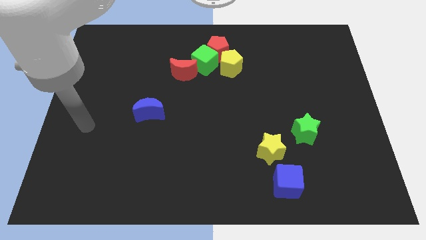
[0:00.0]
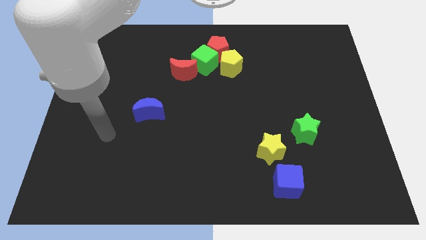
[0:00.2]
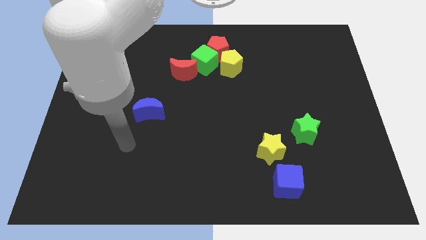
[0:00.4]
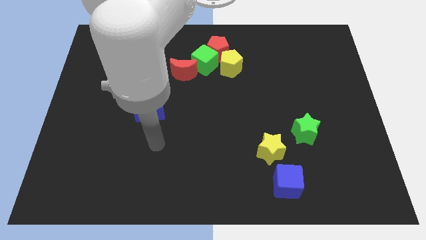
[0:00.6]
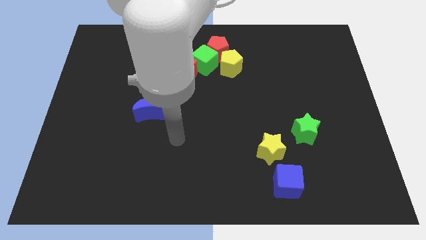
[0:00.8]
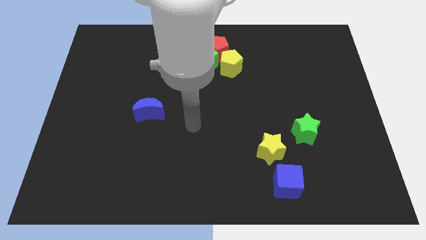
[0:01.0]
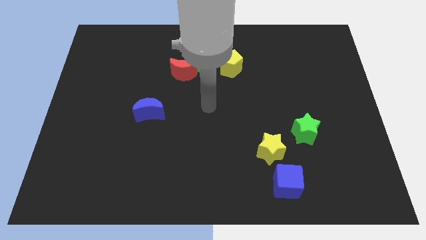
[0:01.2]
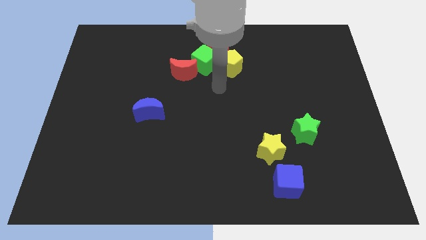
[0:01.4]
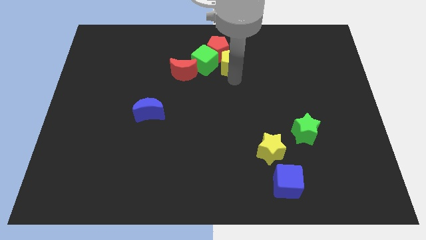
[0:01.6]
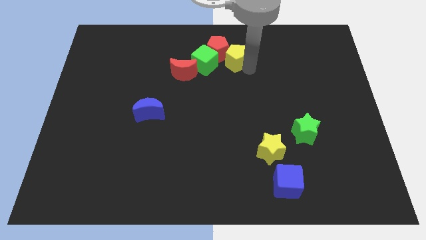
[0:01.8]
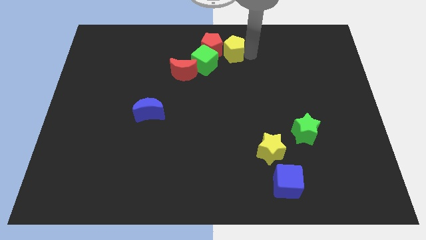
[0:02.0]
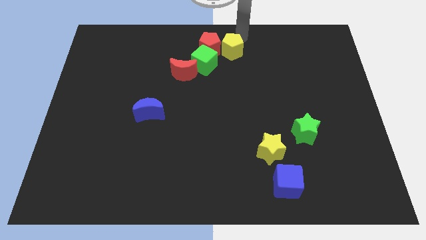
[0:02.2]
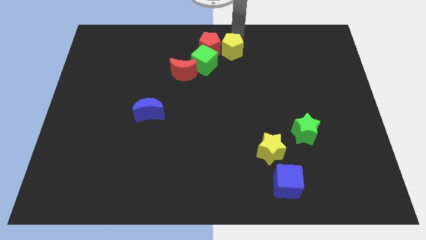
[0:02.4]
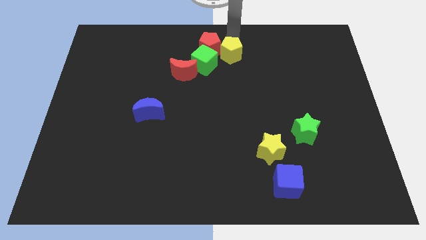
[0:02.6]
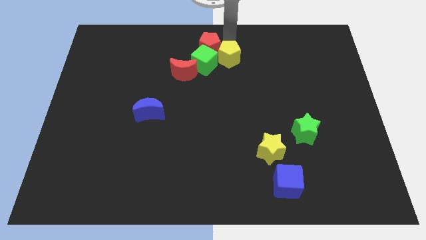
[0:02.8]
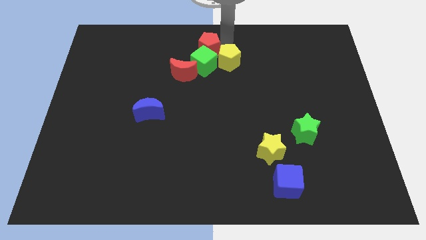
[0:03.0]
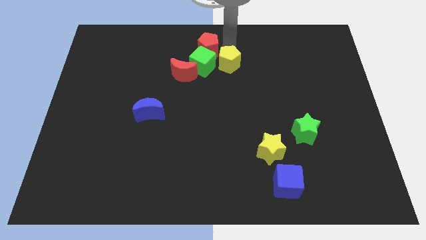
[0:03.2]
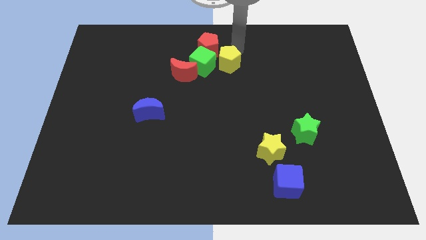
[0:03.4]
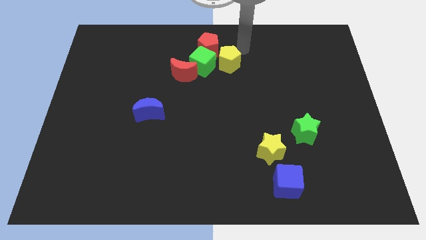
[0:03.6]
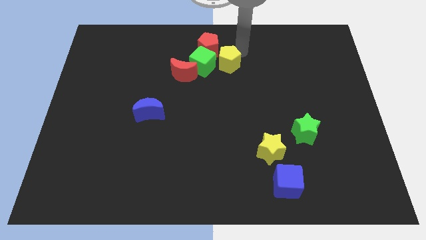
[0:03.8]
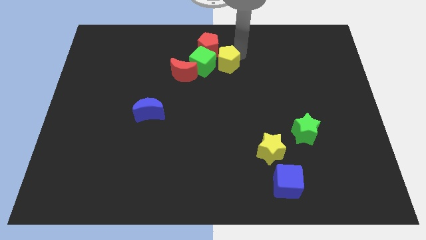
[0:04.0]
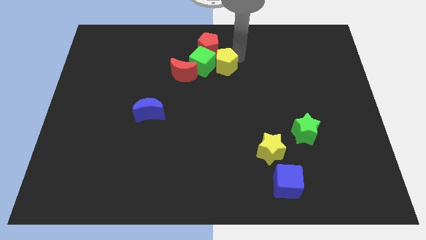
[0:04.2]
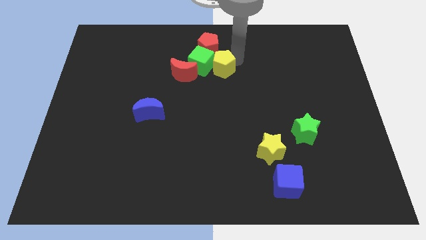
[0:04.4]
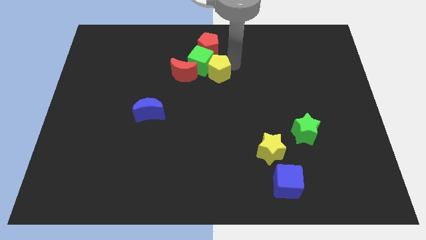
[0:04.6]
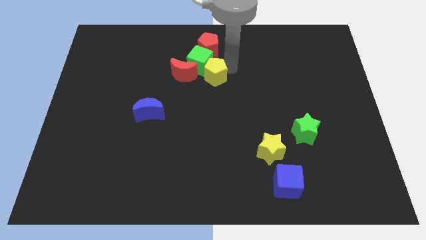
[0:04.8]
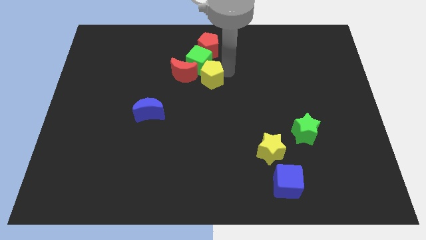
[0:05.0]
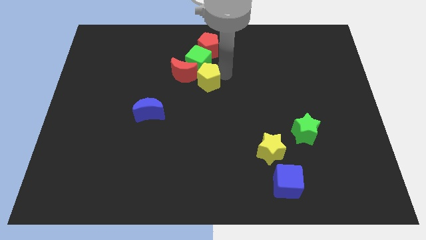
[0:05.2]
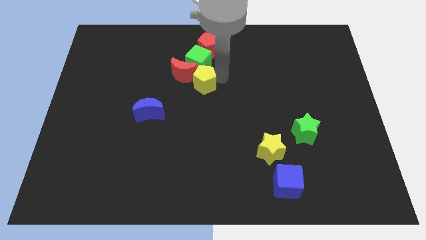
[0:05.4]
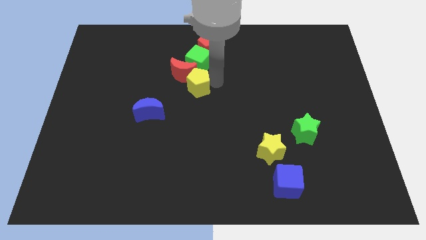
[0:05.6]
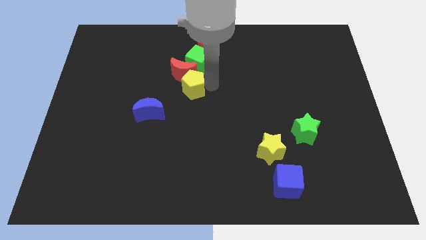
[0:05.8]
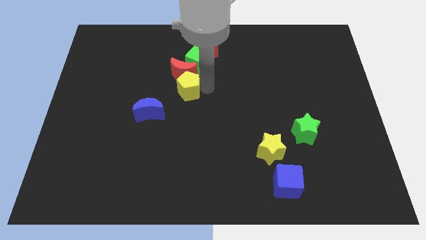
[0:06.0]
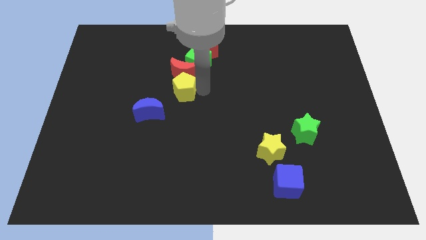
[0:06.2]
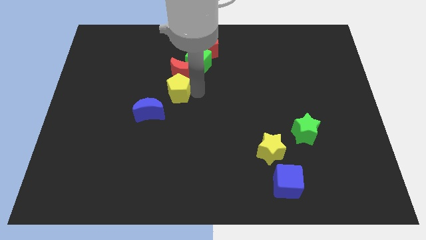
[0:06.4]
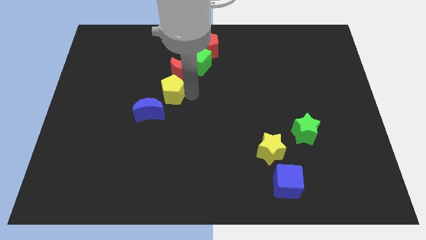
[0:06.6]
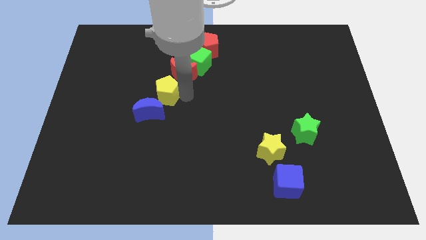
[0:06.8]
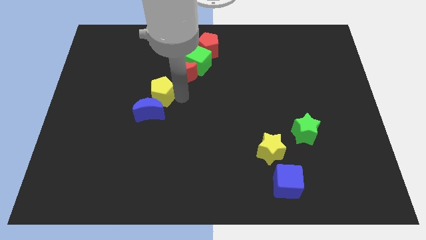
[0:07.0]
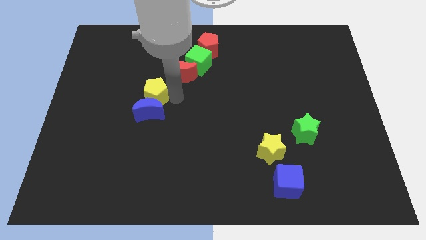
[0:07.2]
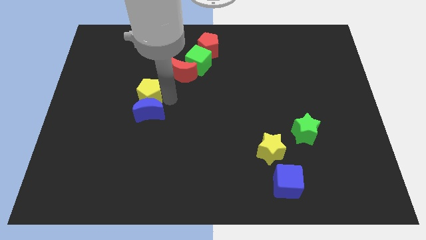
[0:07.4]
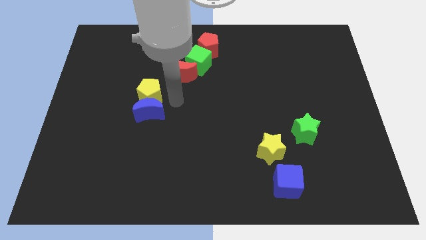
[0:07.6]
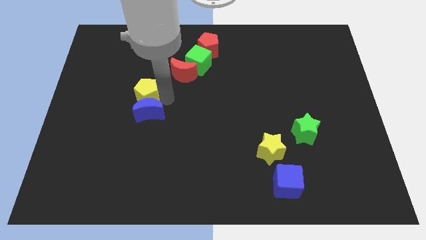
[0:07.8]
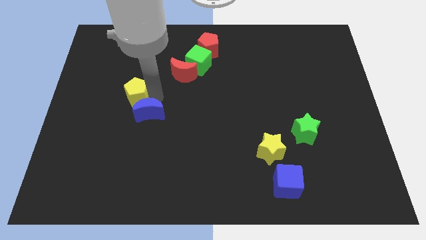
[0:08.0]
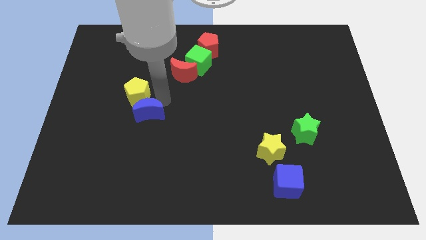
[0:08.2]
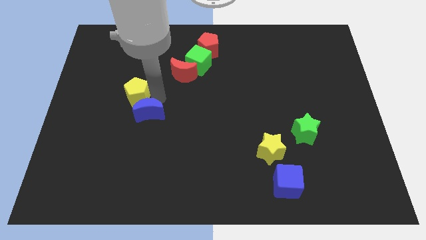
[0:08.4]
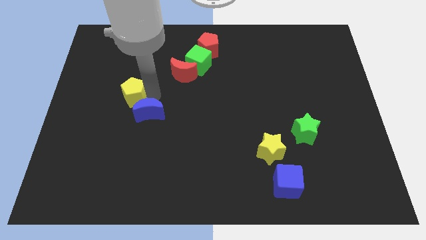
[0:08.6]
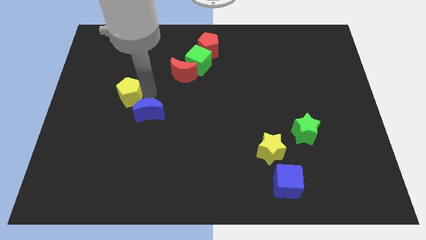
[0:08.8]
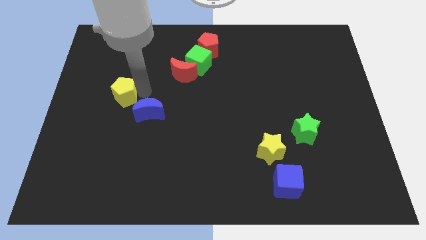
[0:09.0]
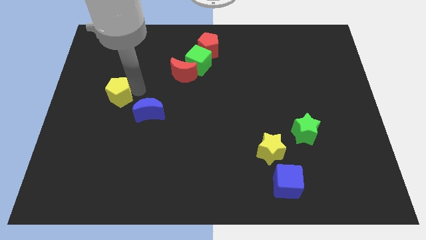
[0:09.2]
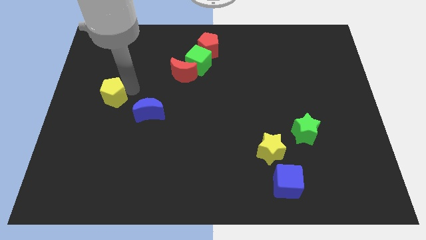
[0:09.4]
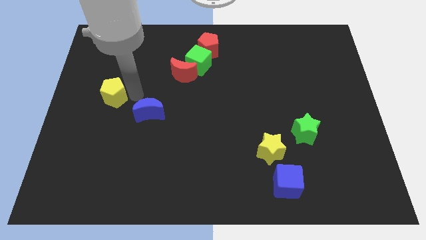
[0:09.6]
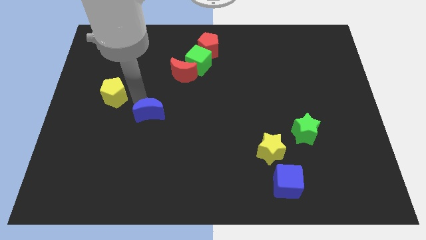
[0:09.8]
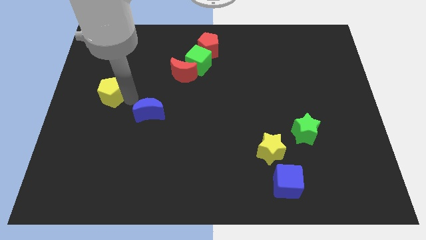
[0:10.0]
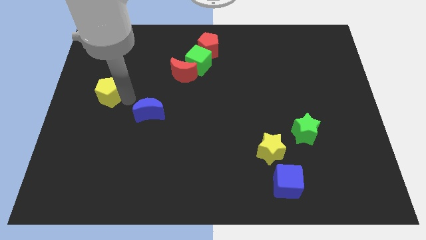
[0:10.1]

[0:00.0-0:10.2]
slide the yellow pentagon to the center left

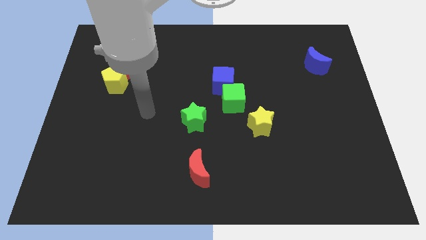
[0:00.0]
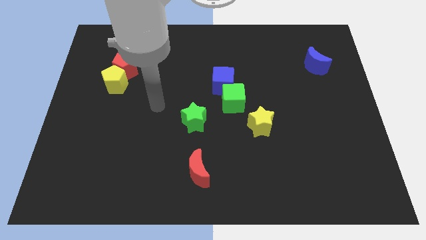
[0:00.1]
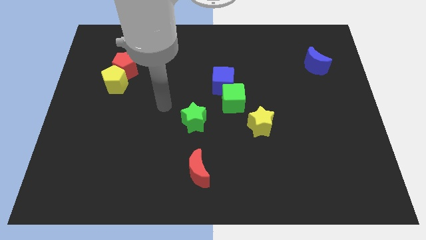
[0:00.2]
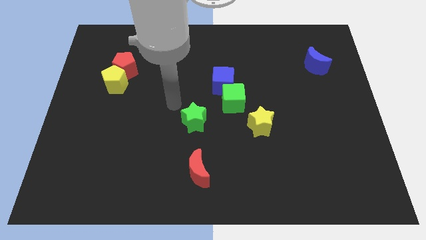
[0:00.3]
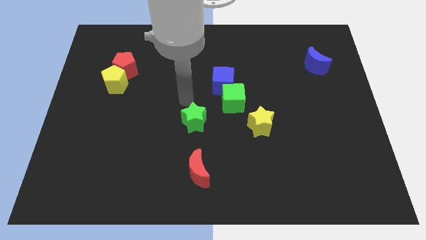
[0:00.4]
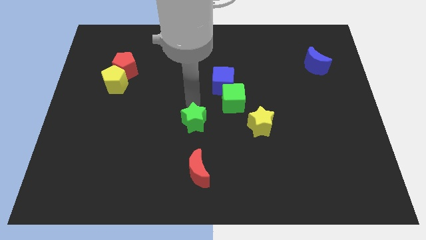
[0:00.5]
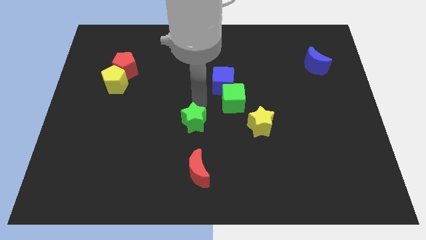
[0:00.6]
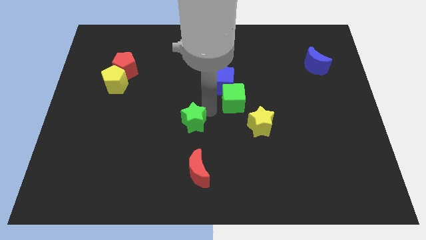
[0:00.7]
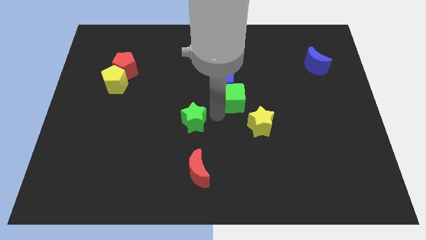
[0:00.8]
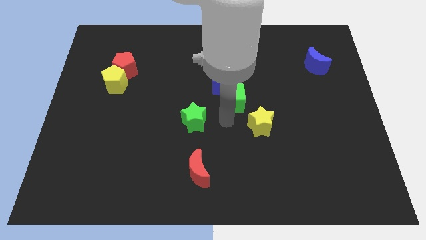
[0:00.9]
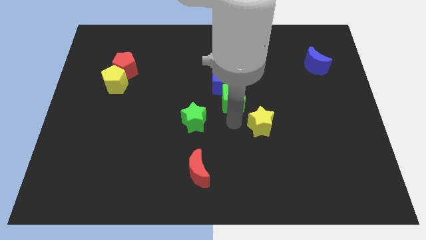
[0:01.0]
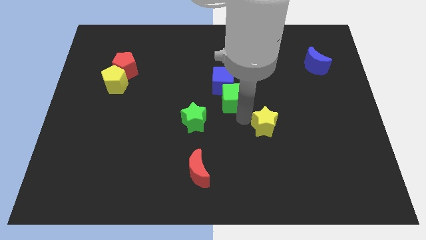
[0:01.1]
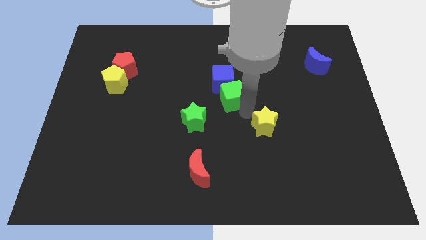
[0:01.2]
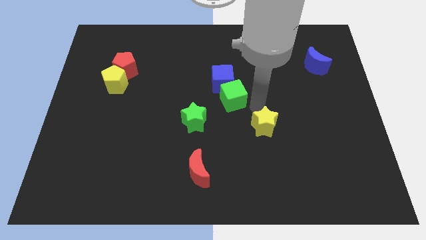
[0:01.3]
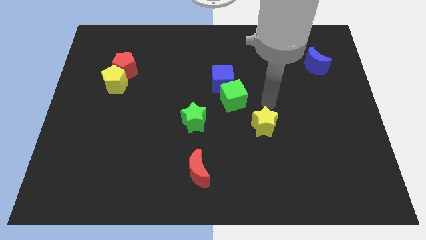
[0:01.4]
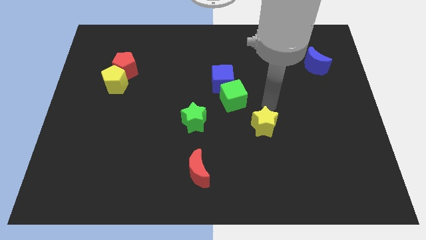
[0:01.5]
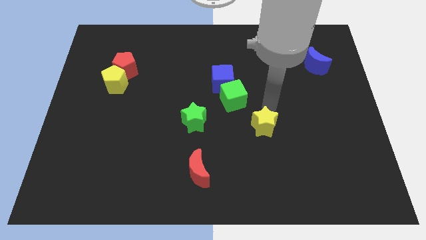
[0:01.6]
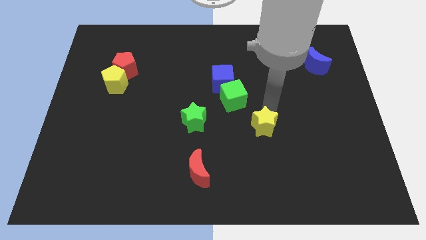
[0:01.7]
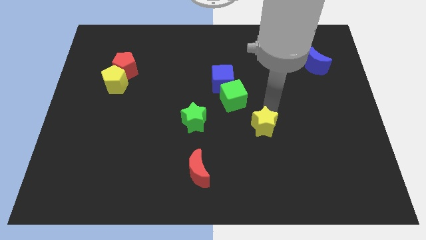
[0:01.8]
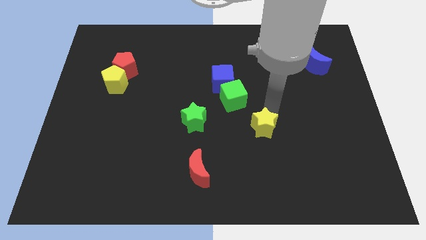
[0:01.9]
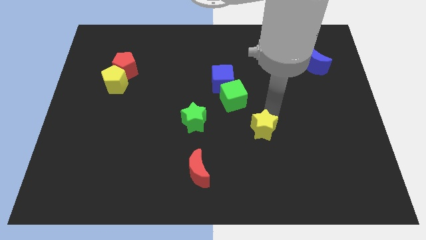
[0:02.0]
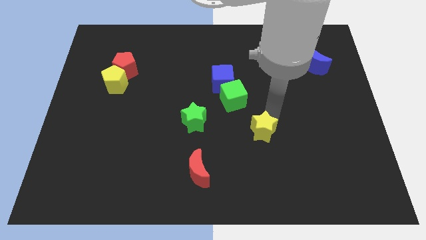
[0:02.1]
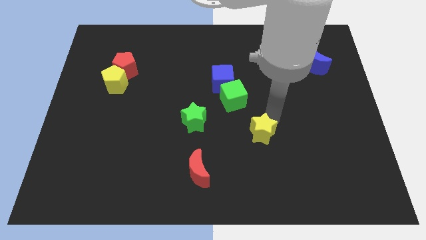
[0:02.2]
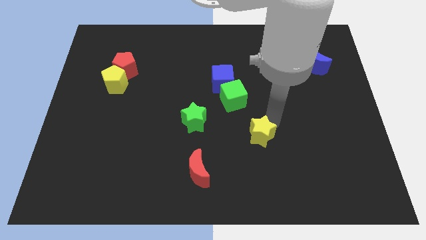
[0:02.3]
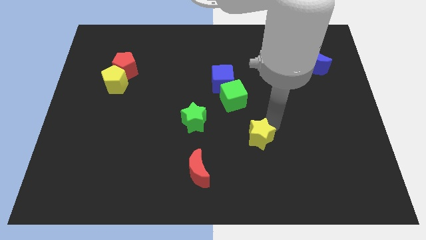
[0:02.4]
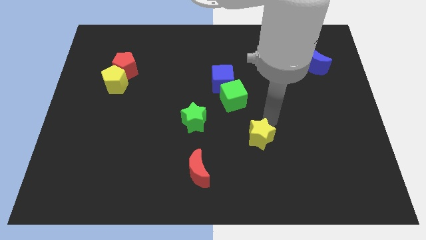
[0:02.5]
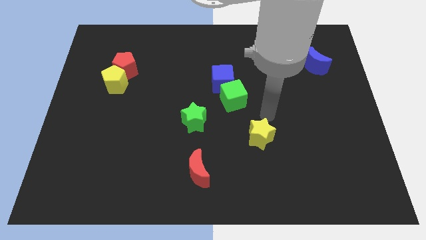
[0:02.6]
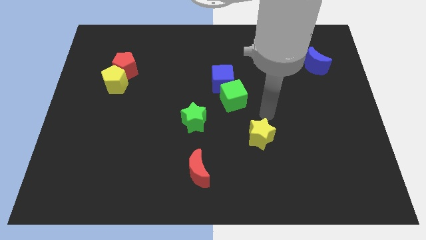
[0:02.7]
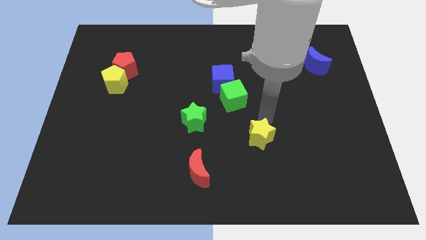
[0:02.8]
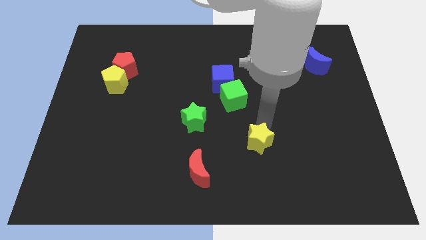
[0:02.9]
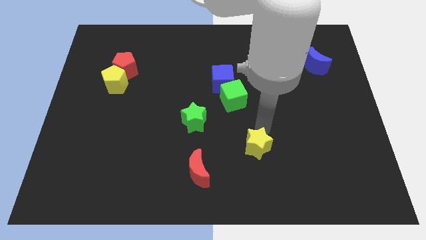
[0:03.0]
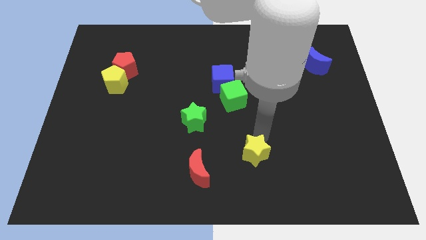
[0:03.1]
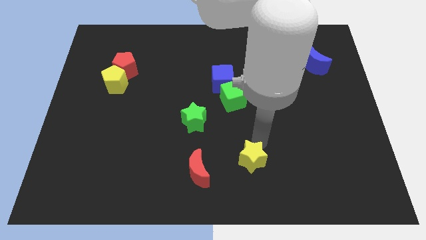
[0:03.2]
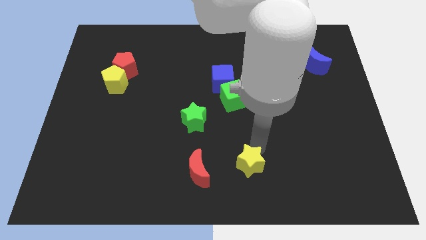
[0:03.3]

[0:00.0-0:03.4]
put the yellow star to the bottom side
